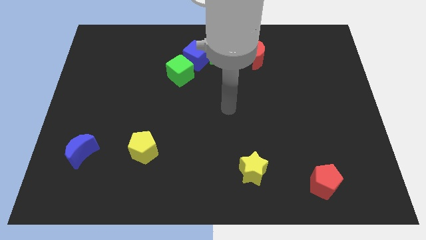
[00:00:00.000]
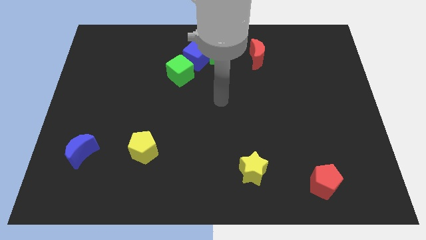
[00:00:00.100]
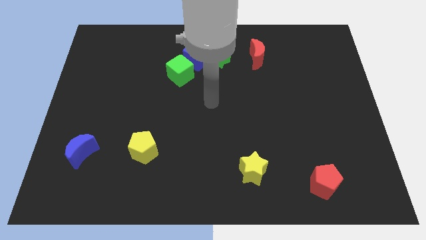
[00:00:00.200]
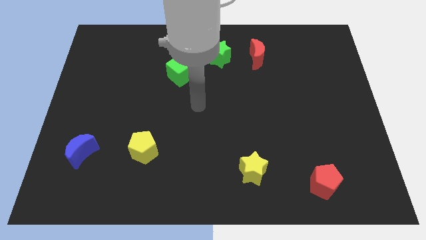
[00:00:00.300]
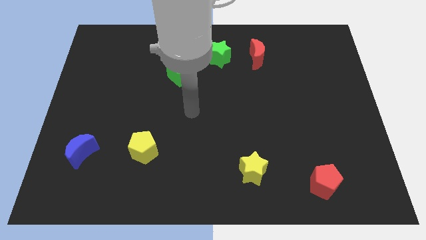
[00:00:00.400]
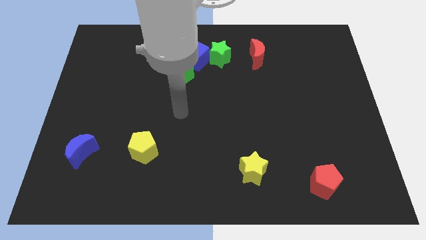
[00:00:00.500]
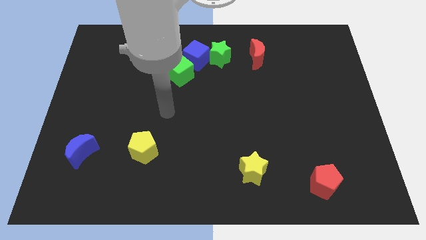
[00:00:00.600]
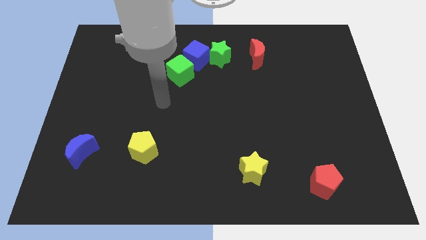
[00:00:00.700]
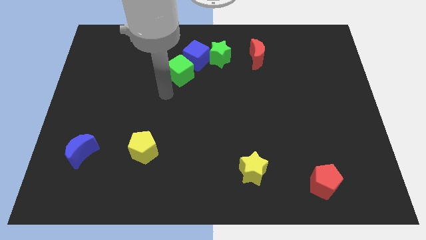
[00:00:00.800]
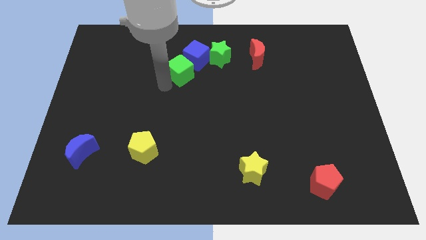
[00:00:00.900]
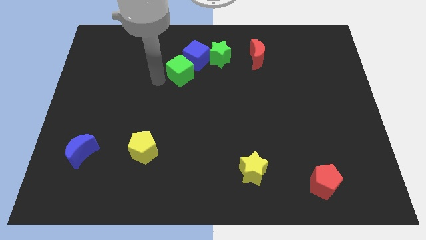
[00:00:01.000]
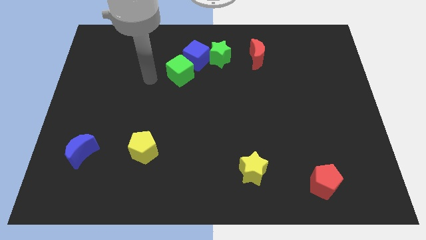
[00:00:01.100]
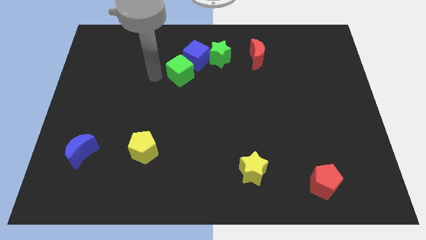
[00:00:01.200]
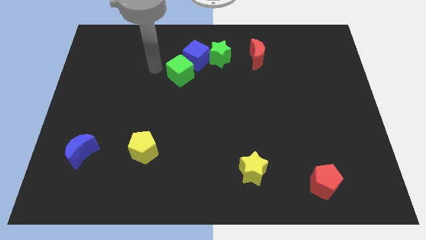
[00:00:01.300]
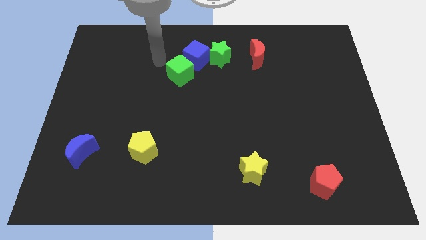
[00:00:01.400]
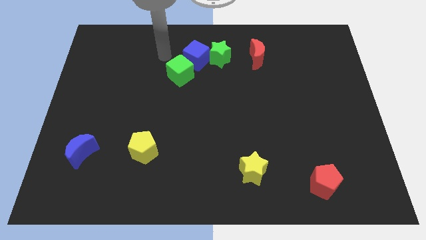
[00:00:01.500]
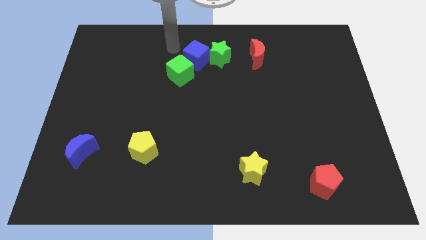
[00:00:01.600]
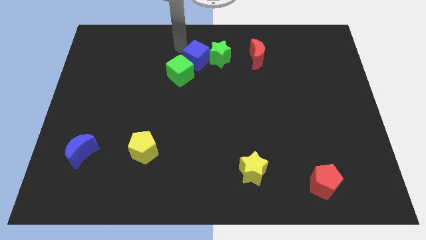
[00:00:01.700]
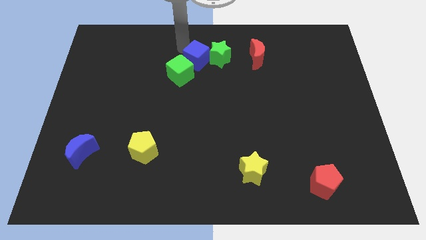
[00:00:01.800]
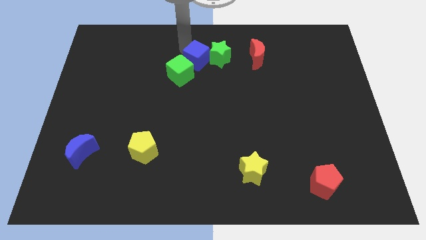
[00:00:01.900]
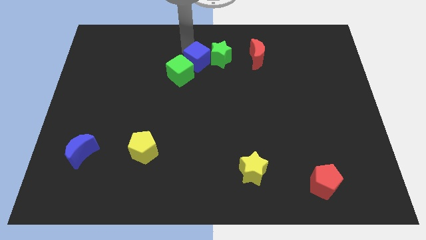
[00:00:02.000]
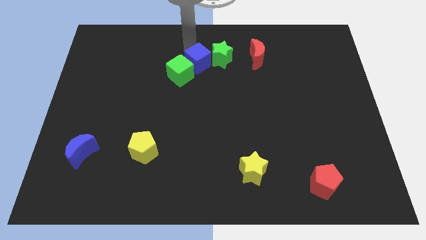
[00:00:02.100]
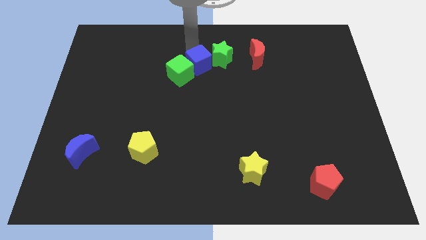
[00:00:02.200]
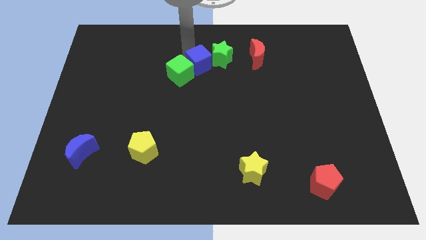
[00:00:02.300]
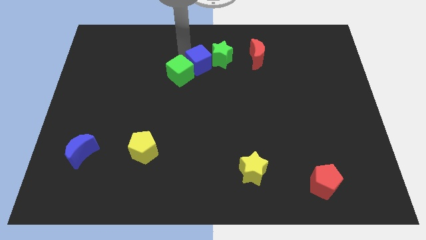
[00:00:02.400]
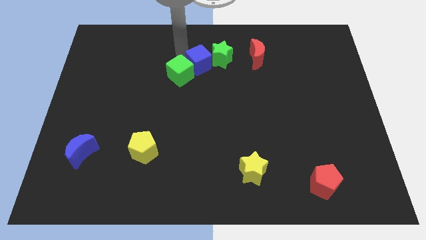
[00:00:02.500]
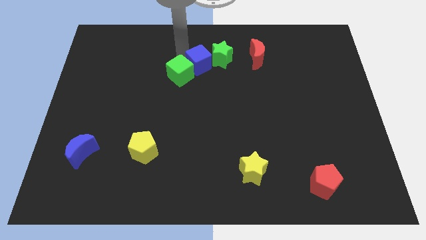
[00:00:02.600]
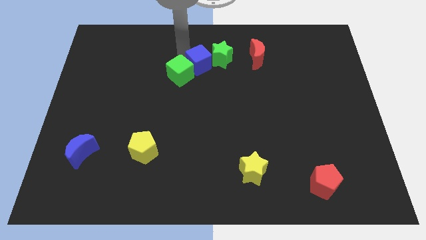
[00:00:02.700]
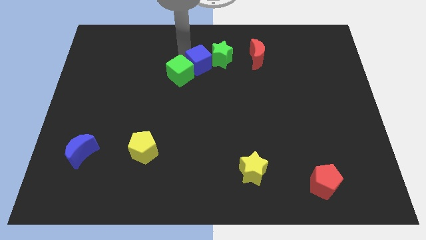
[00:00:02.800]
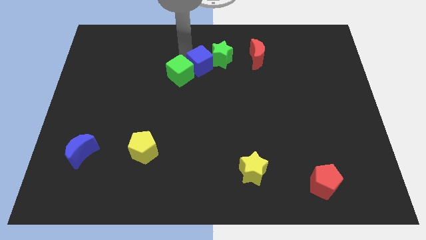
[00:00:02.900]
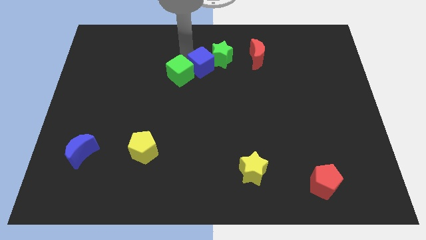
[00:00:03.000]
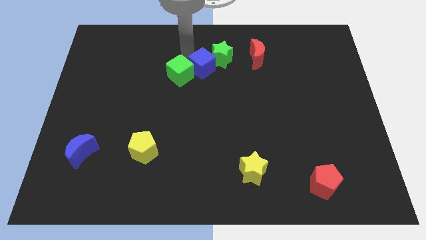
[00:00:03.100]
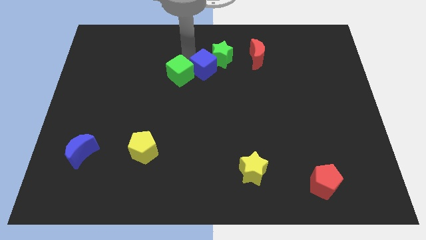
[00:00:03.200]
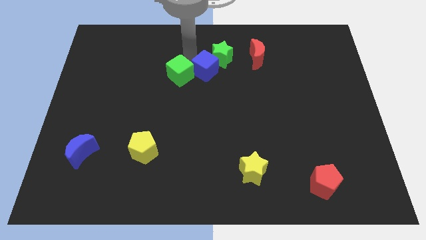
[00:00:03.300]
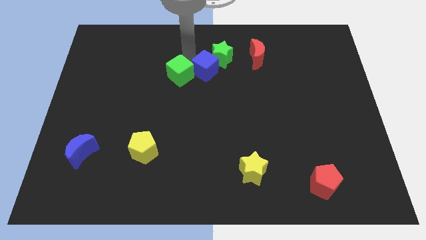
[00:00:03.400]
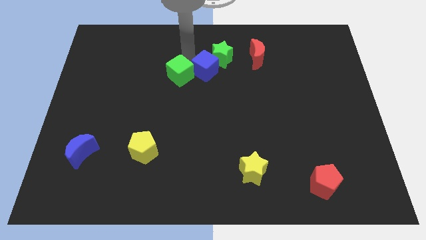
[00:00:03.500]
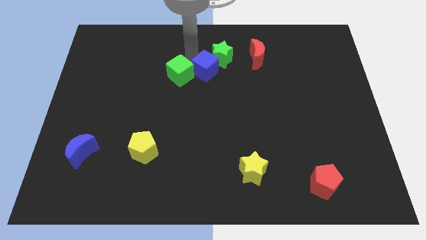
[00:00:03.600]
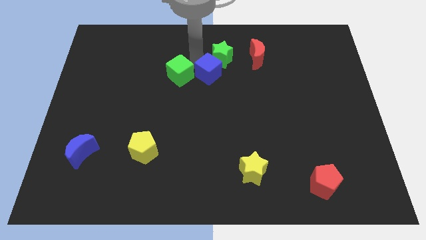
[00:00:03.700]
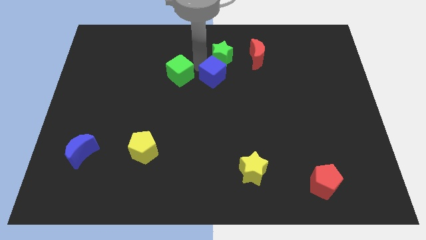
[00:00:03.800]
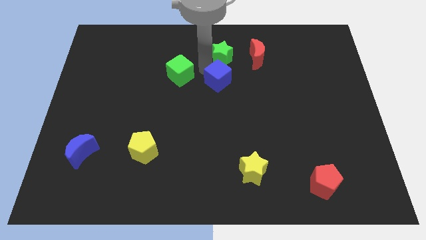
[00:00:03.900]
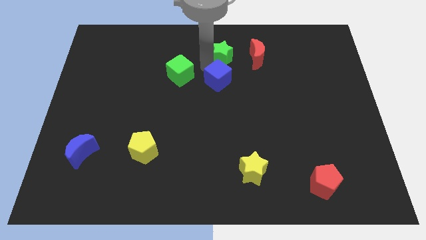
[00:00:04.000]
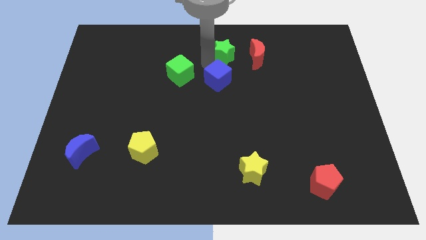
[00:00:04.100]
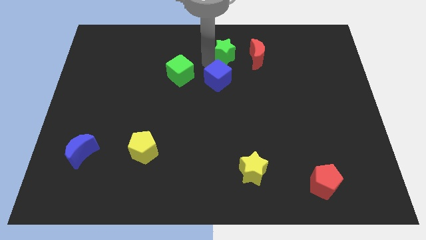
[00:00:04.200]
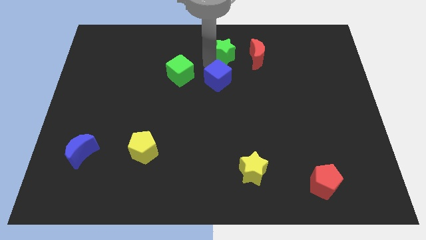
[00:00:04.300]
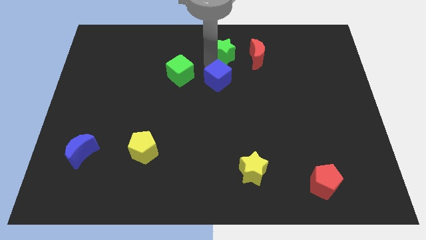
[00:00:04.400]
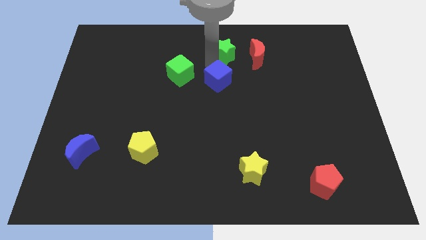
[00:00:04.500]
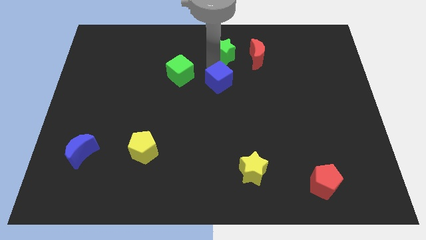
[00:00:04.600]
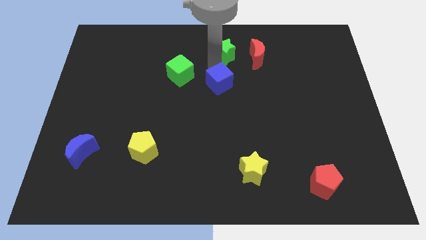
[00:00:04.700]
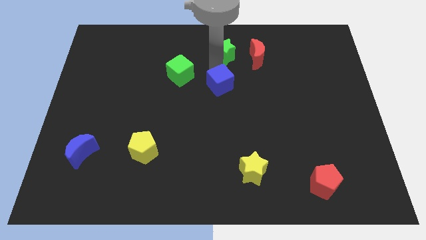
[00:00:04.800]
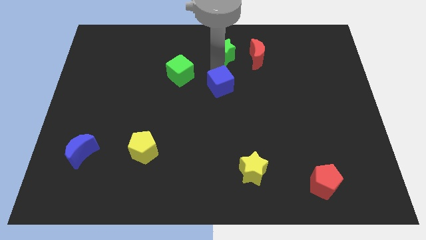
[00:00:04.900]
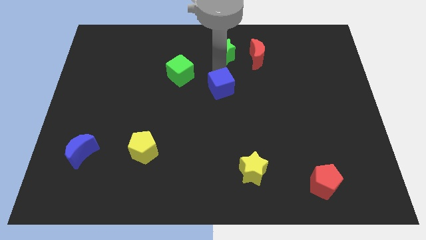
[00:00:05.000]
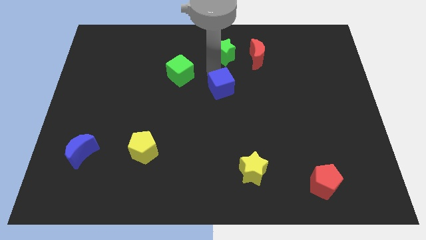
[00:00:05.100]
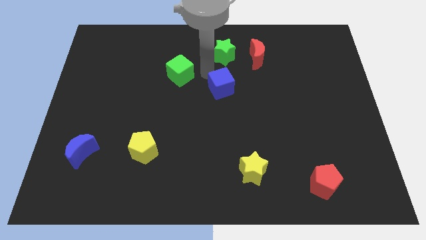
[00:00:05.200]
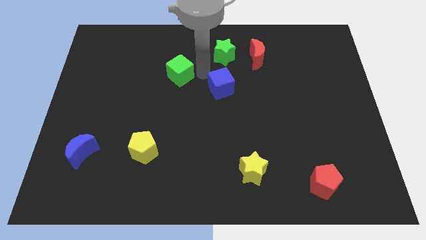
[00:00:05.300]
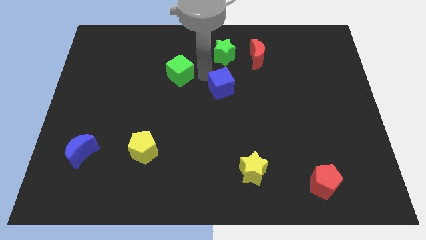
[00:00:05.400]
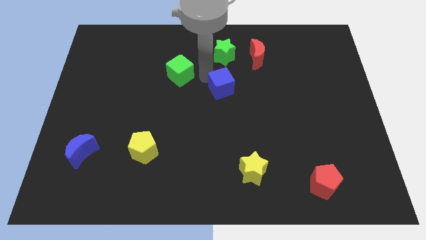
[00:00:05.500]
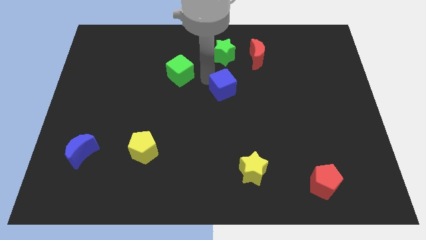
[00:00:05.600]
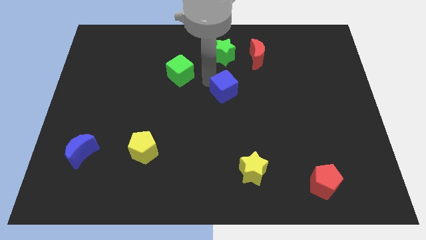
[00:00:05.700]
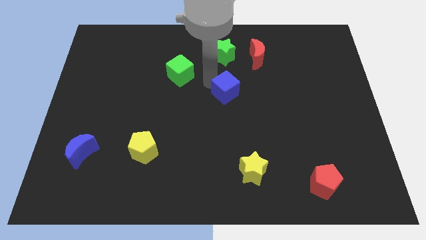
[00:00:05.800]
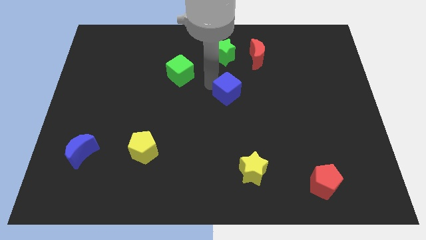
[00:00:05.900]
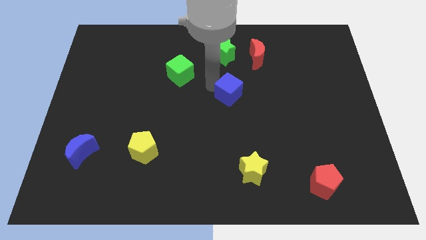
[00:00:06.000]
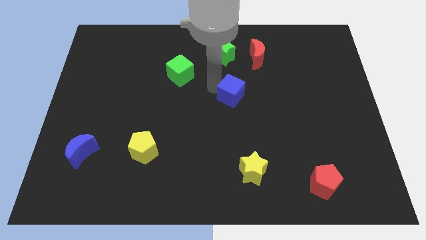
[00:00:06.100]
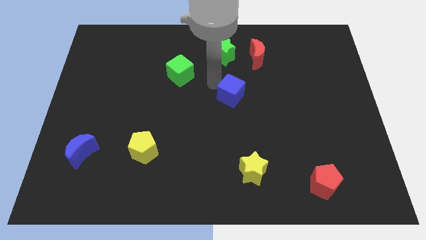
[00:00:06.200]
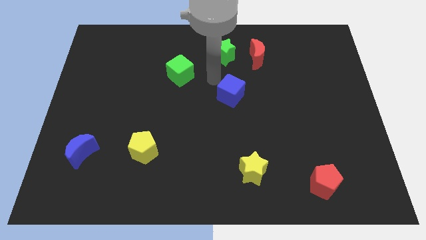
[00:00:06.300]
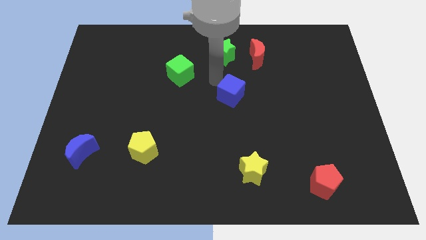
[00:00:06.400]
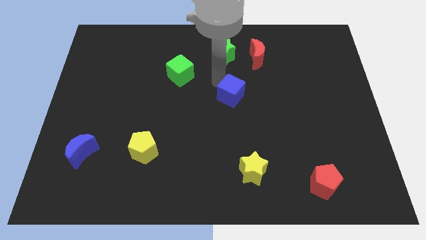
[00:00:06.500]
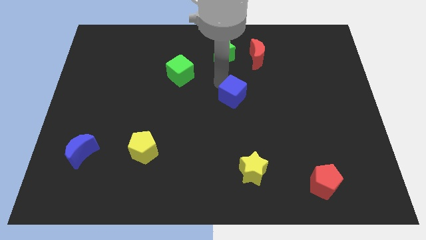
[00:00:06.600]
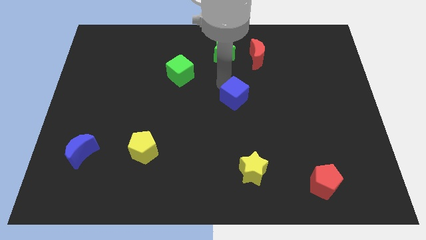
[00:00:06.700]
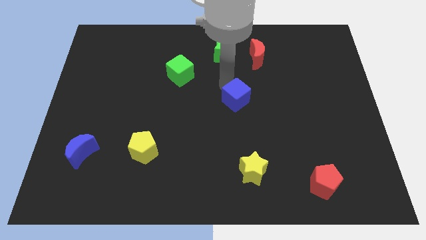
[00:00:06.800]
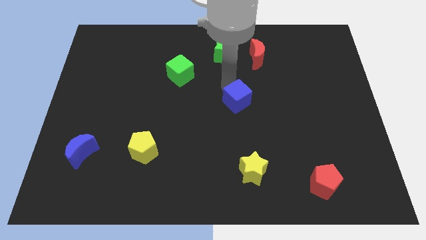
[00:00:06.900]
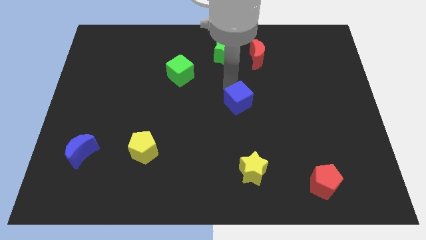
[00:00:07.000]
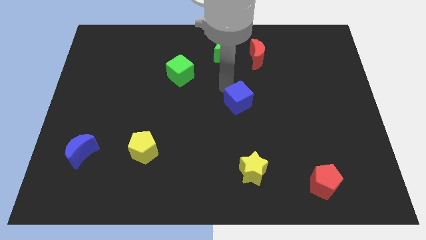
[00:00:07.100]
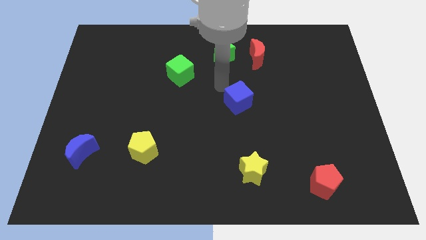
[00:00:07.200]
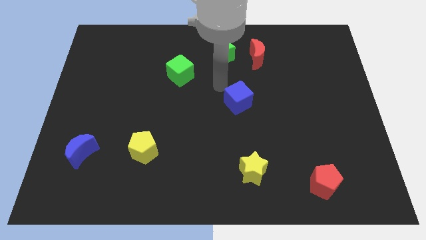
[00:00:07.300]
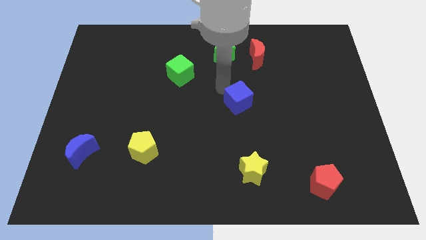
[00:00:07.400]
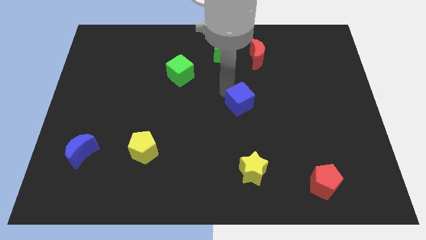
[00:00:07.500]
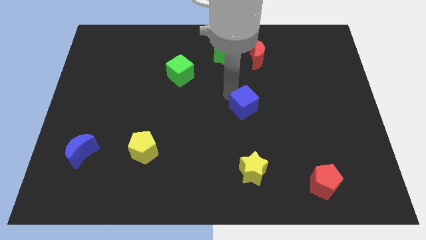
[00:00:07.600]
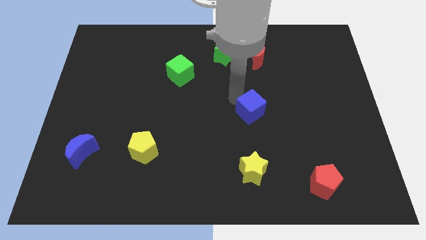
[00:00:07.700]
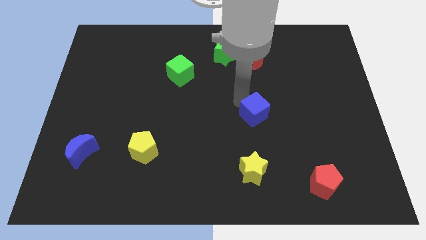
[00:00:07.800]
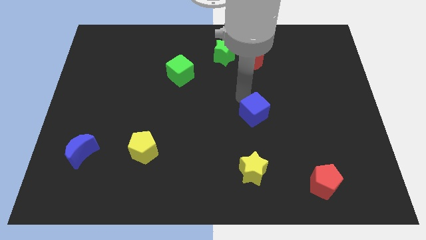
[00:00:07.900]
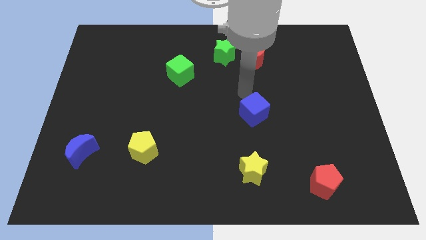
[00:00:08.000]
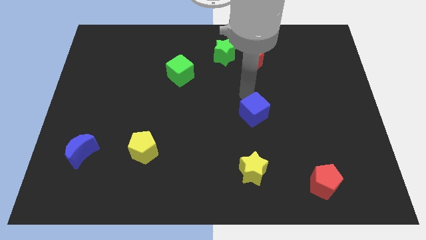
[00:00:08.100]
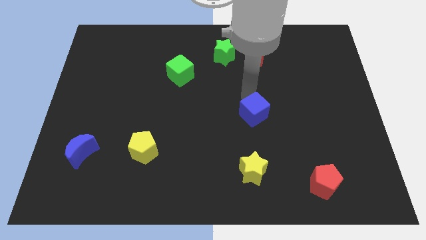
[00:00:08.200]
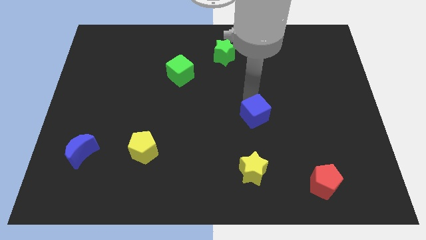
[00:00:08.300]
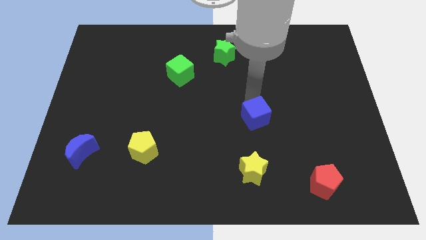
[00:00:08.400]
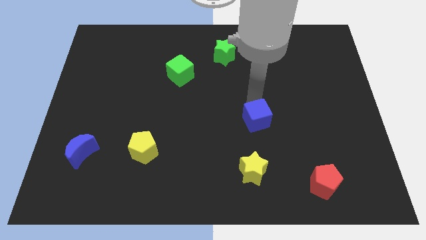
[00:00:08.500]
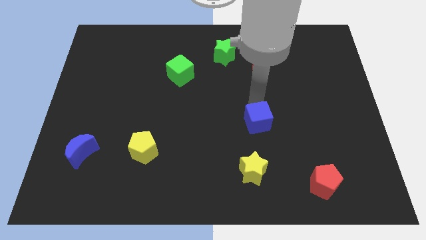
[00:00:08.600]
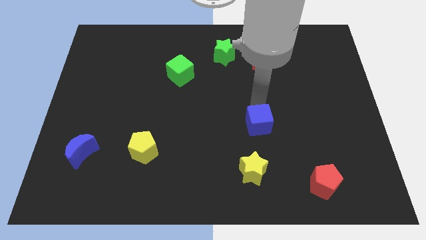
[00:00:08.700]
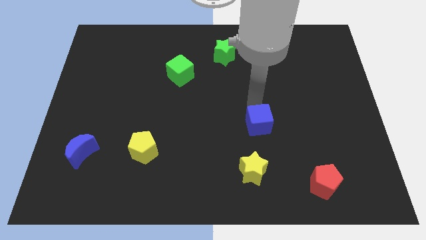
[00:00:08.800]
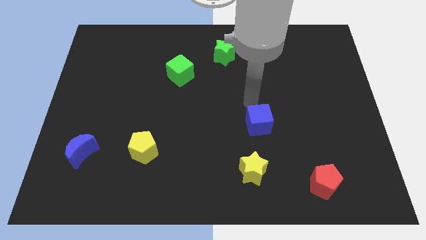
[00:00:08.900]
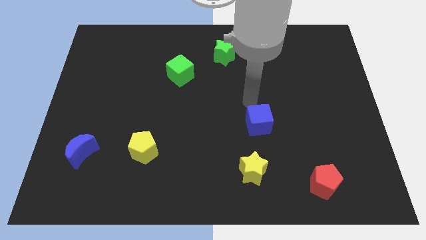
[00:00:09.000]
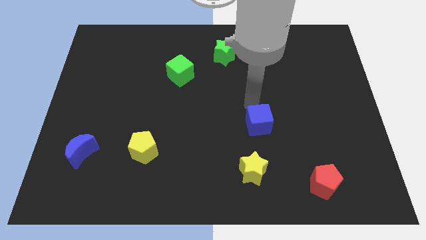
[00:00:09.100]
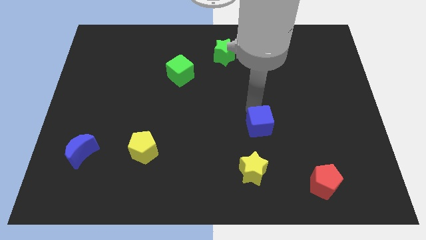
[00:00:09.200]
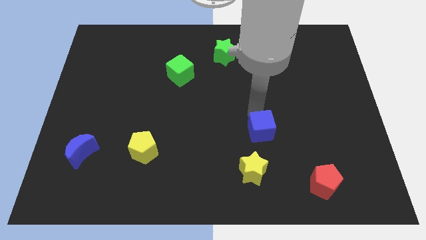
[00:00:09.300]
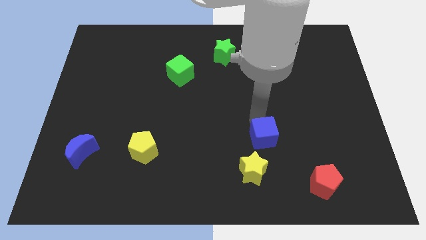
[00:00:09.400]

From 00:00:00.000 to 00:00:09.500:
slide the blue cube diagonally up and to the right of the yellow star
